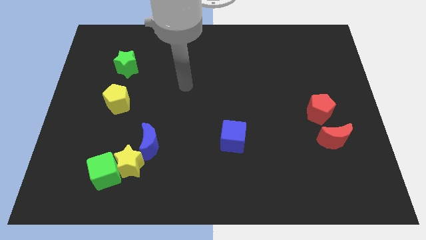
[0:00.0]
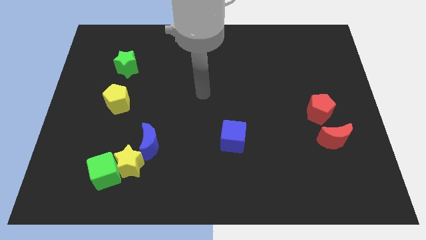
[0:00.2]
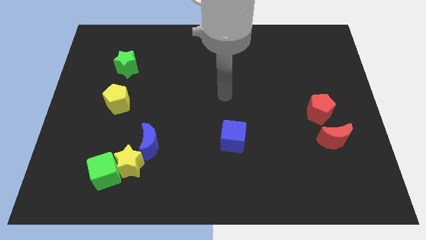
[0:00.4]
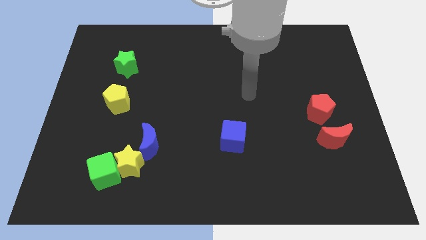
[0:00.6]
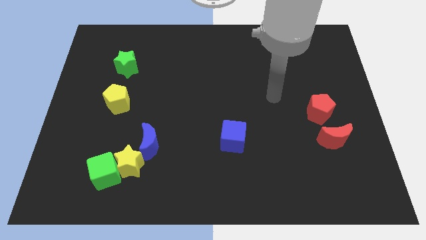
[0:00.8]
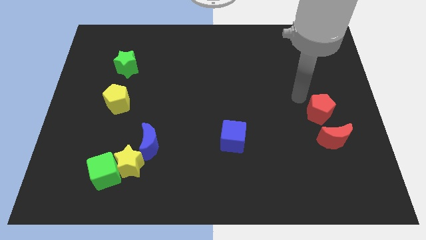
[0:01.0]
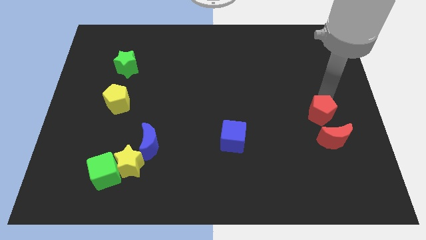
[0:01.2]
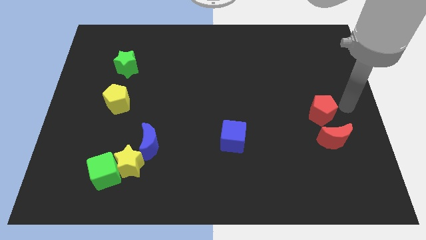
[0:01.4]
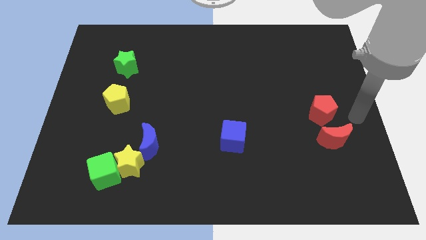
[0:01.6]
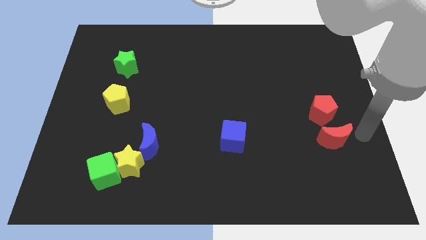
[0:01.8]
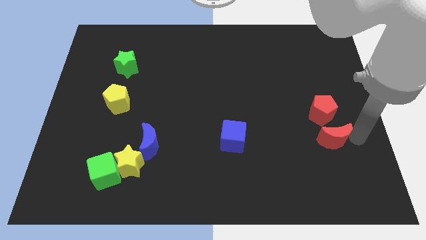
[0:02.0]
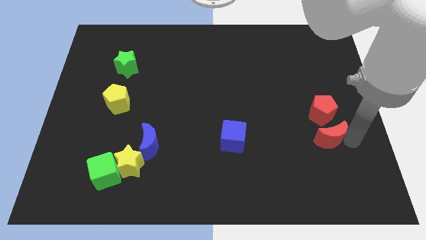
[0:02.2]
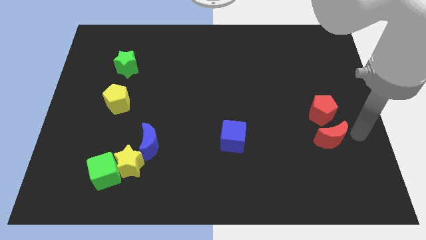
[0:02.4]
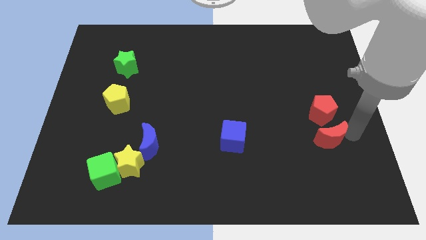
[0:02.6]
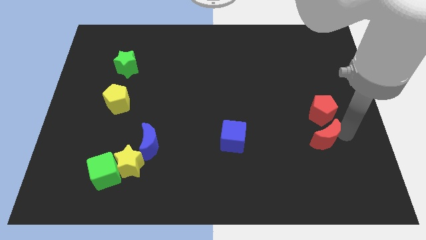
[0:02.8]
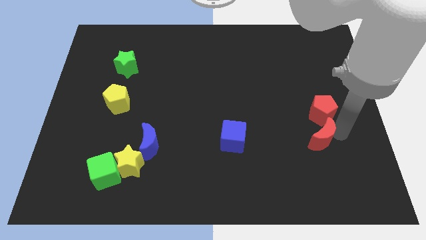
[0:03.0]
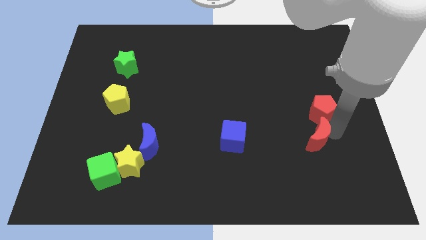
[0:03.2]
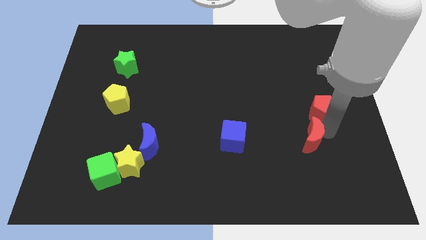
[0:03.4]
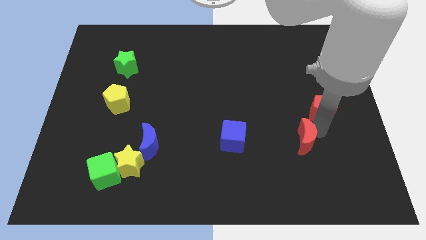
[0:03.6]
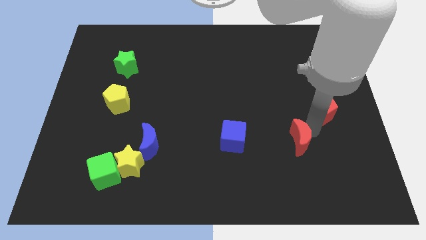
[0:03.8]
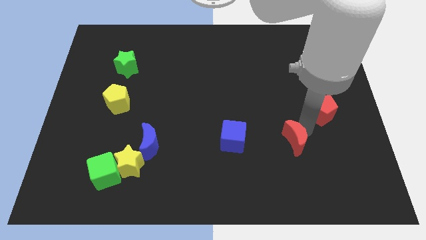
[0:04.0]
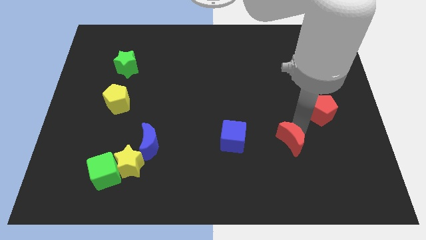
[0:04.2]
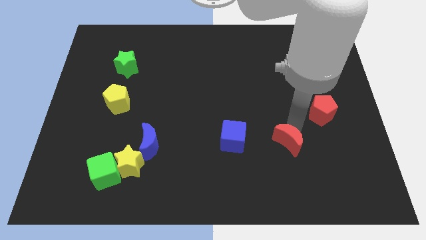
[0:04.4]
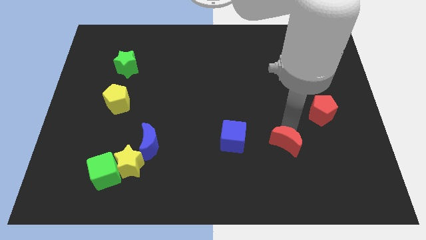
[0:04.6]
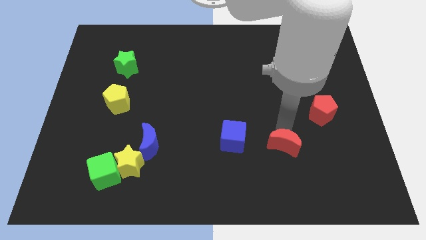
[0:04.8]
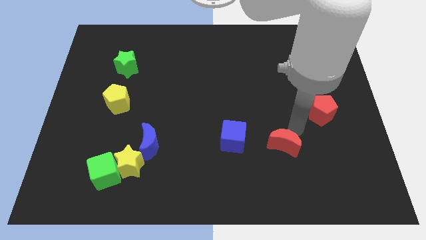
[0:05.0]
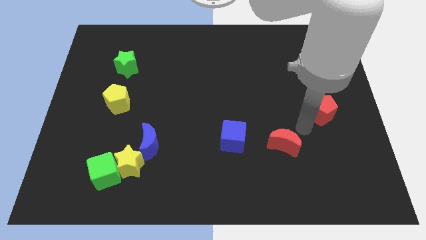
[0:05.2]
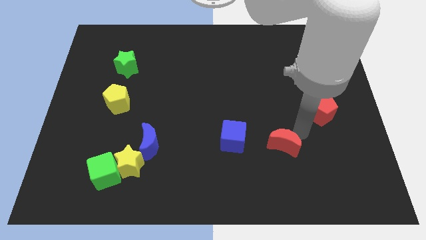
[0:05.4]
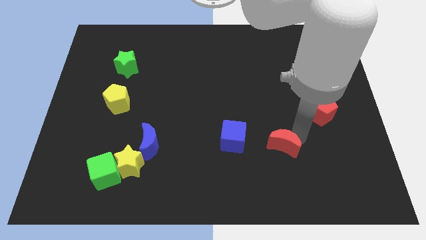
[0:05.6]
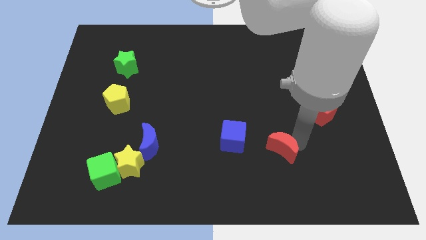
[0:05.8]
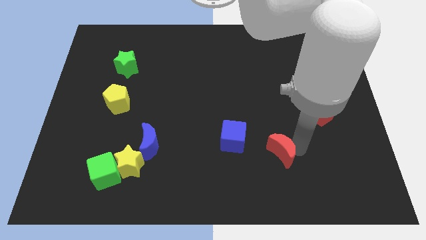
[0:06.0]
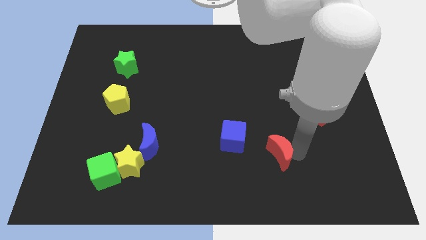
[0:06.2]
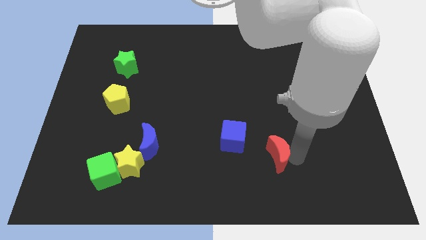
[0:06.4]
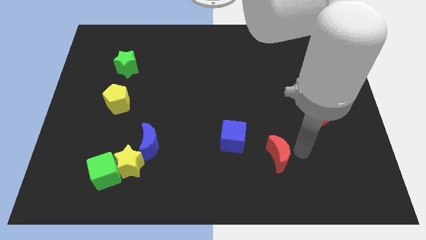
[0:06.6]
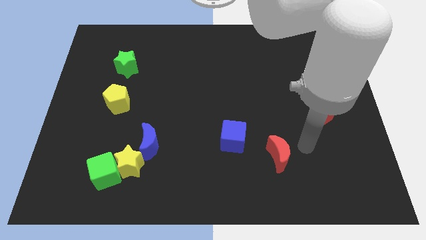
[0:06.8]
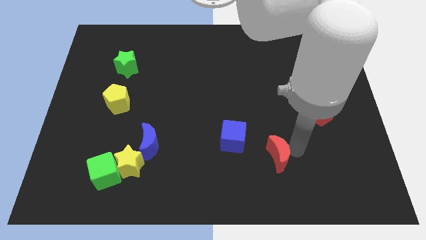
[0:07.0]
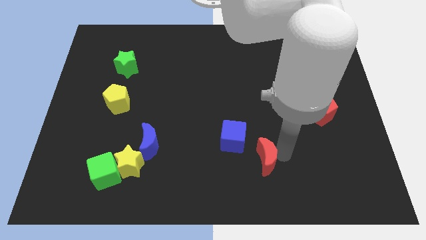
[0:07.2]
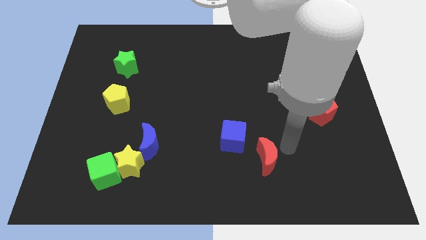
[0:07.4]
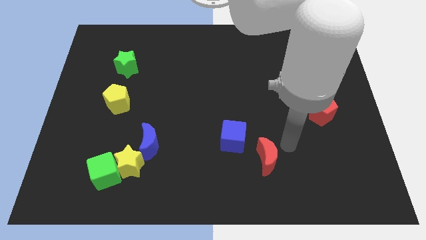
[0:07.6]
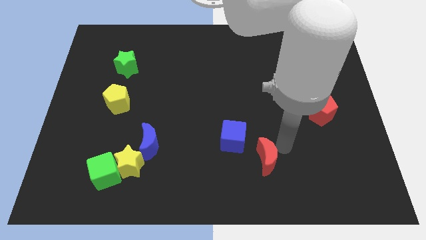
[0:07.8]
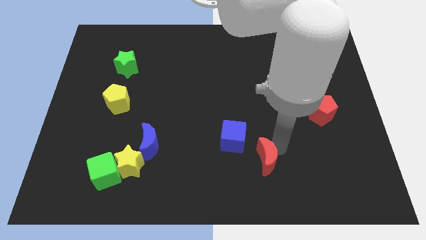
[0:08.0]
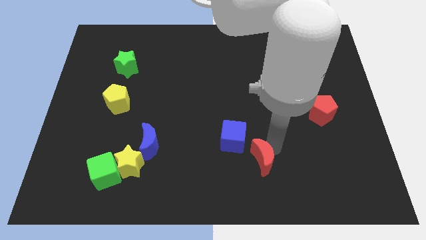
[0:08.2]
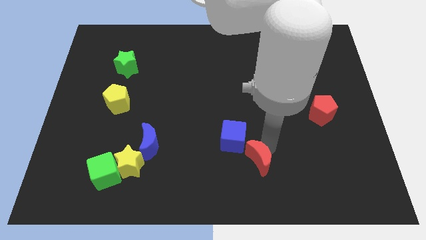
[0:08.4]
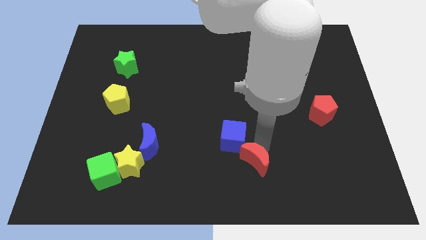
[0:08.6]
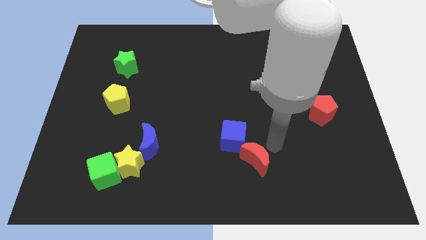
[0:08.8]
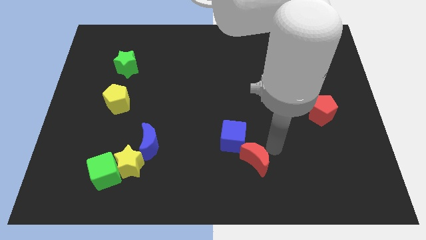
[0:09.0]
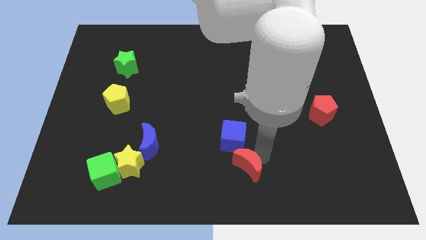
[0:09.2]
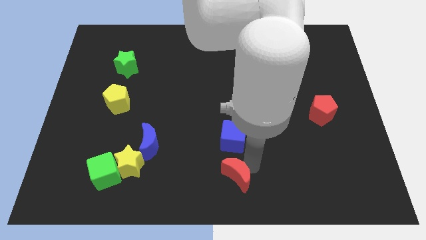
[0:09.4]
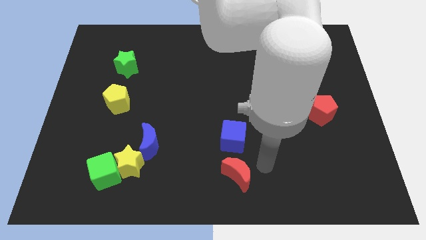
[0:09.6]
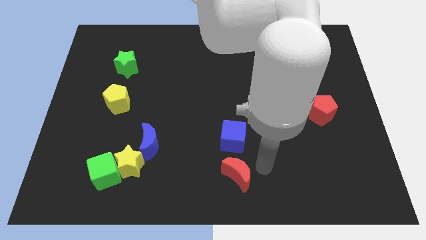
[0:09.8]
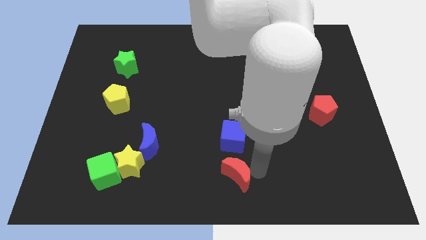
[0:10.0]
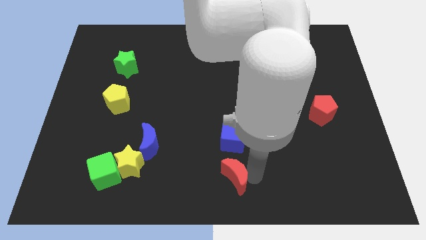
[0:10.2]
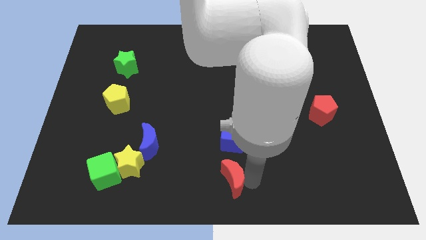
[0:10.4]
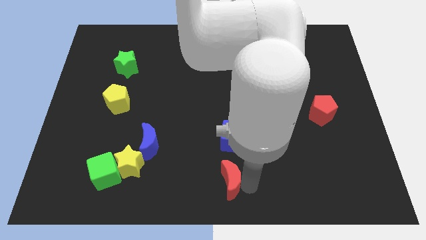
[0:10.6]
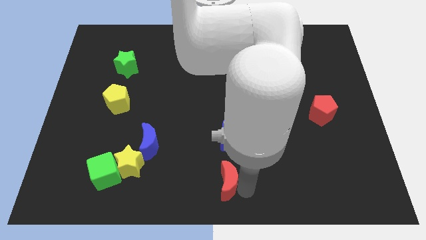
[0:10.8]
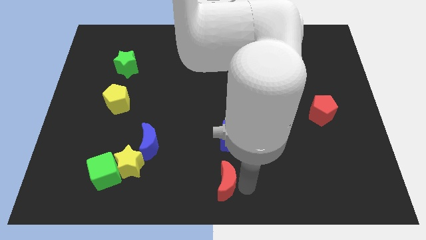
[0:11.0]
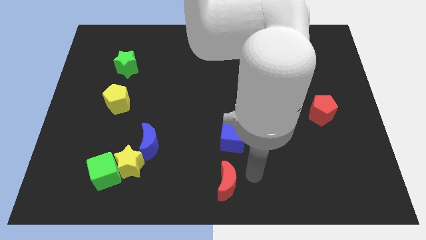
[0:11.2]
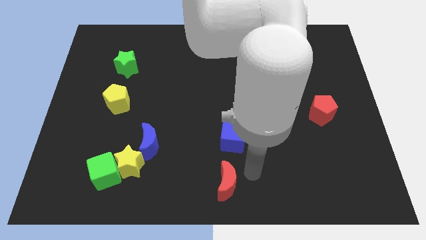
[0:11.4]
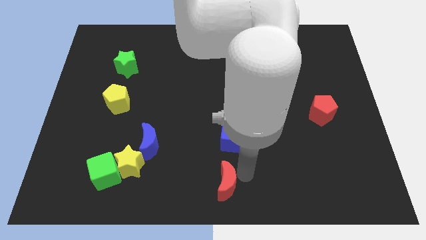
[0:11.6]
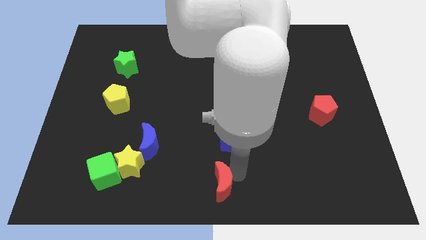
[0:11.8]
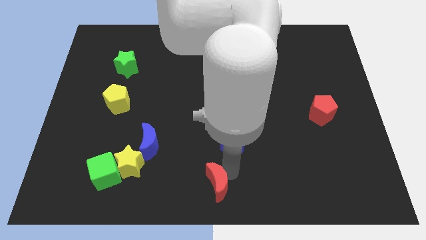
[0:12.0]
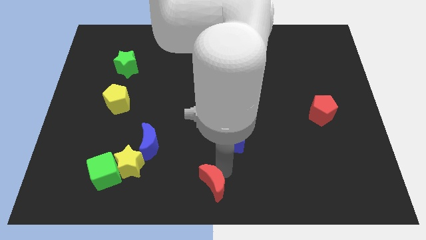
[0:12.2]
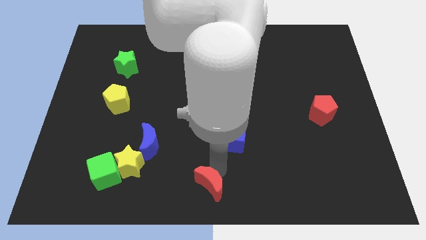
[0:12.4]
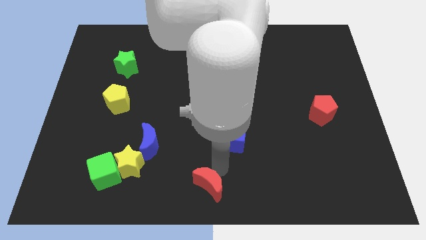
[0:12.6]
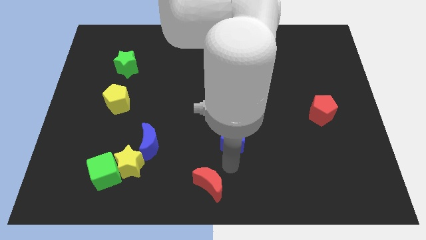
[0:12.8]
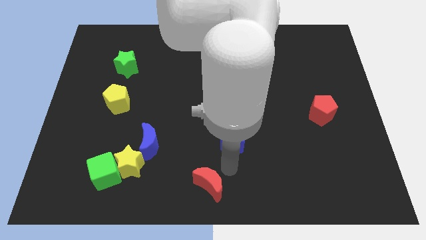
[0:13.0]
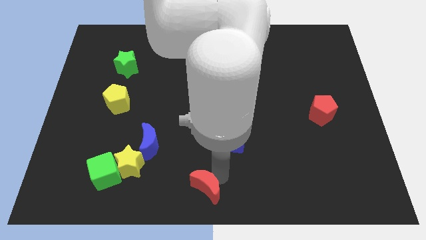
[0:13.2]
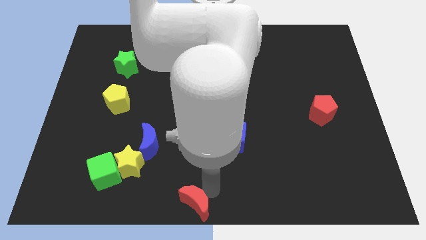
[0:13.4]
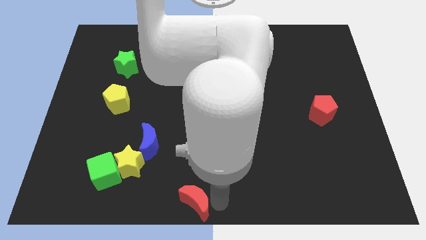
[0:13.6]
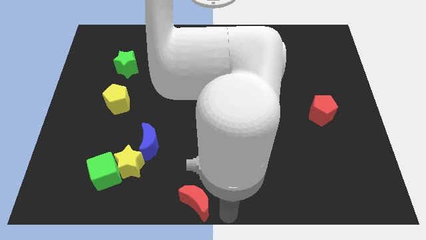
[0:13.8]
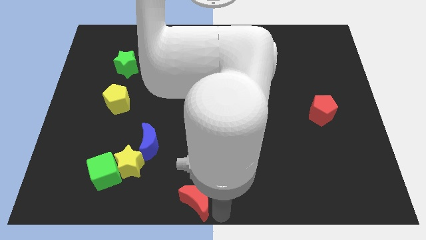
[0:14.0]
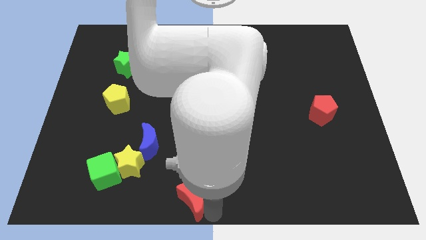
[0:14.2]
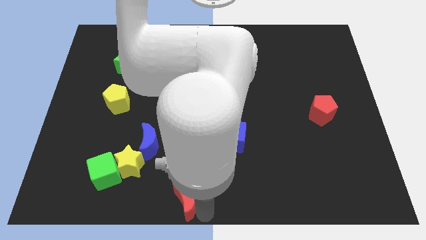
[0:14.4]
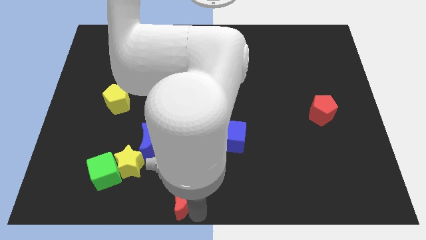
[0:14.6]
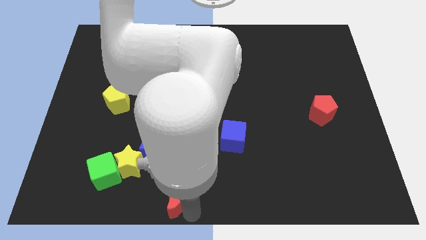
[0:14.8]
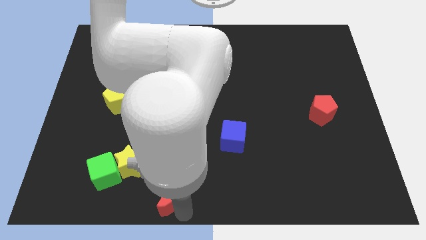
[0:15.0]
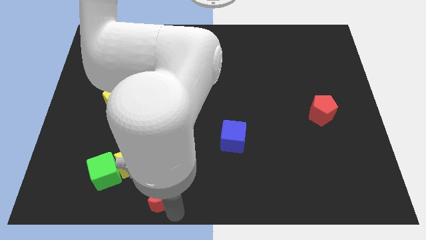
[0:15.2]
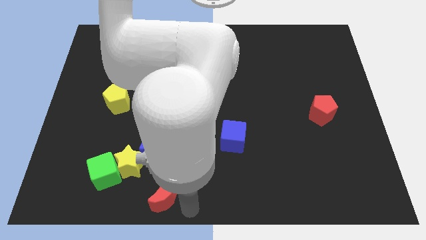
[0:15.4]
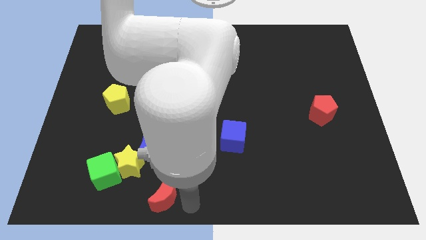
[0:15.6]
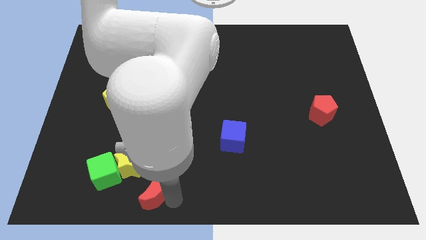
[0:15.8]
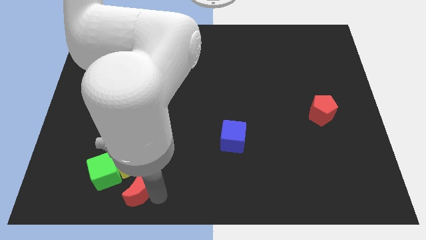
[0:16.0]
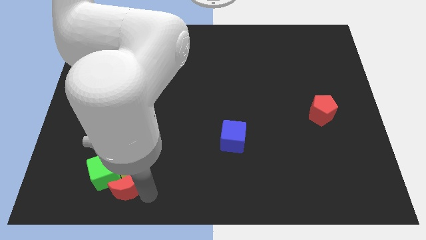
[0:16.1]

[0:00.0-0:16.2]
move the red moon to the green cube
